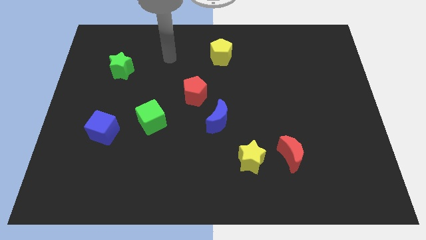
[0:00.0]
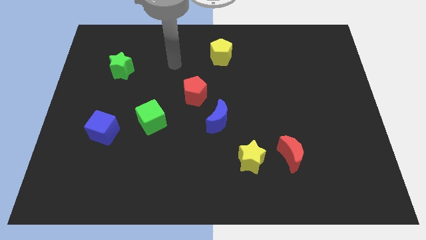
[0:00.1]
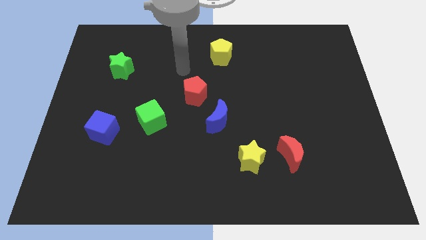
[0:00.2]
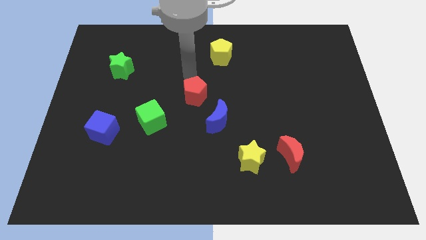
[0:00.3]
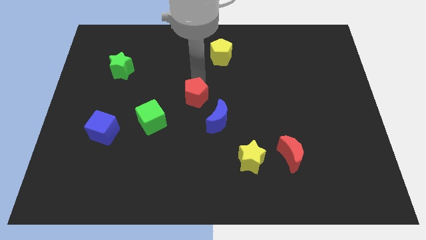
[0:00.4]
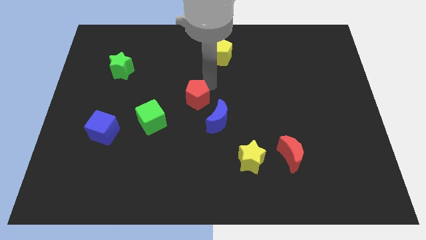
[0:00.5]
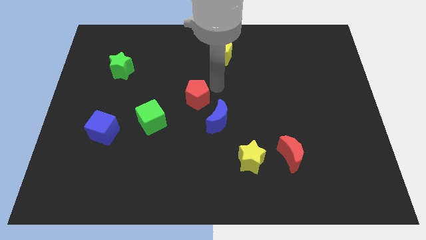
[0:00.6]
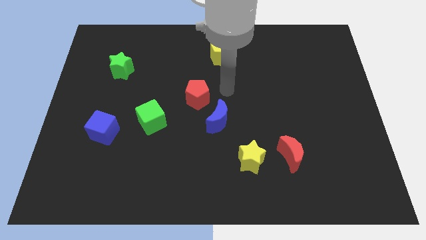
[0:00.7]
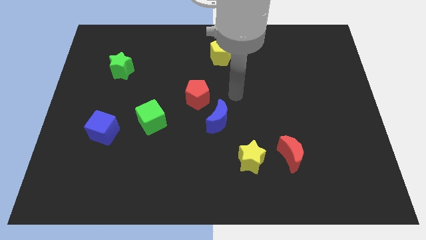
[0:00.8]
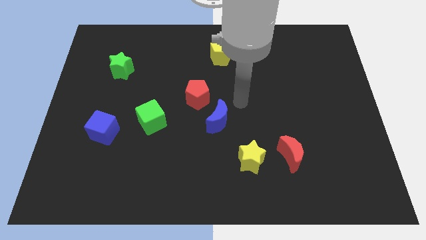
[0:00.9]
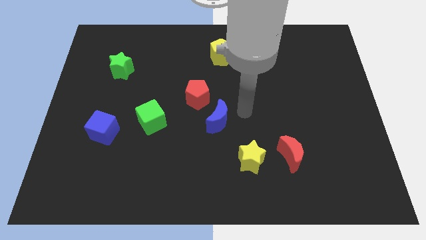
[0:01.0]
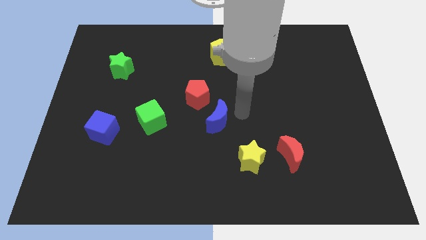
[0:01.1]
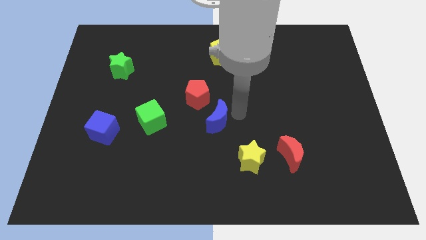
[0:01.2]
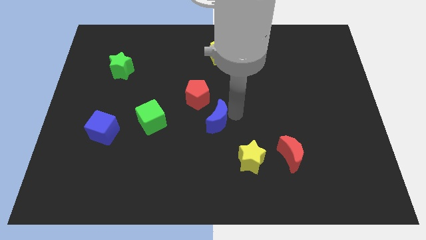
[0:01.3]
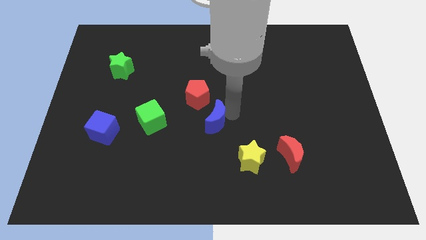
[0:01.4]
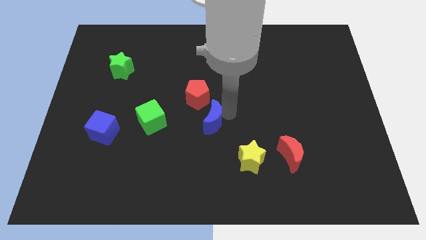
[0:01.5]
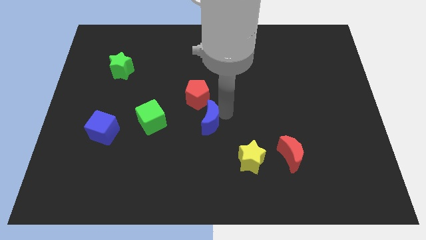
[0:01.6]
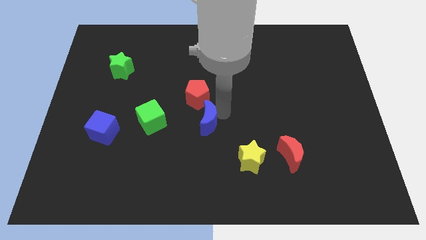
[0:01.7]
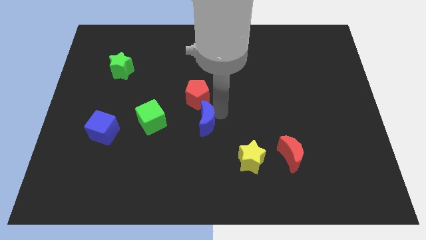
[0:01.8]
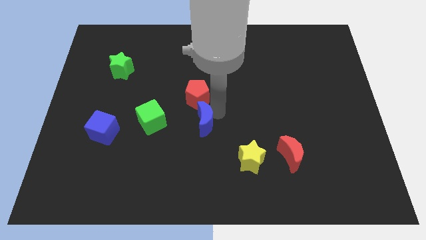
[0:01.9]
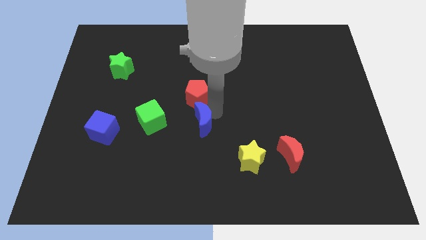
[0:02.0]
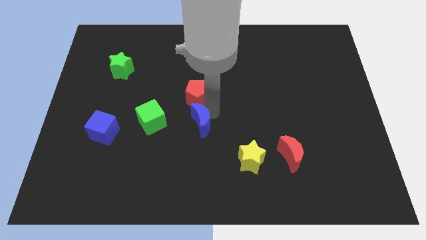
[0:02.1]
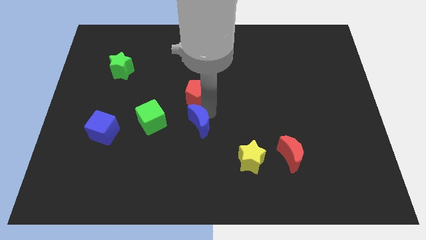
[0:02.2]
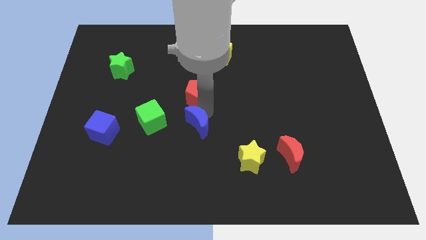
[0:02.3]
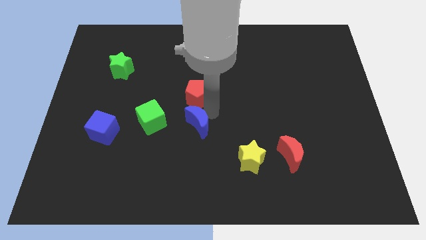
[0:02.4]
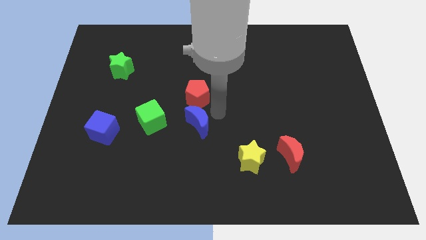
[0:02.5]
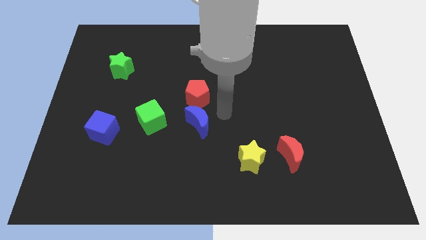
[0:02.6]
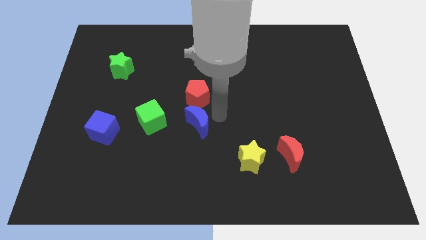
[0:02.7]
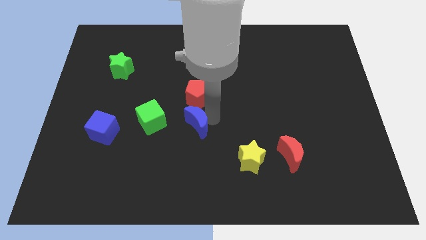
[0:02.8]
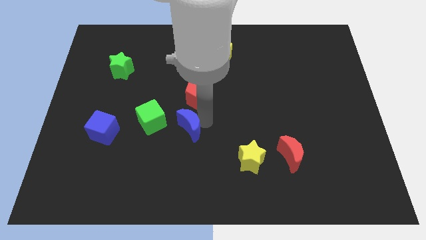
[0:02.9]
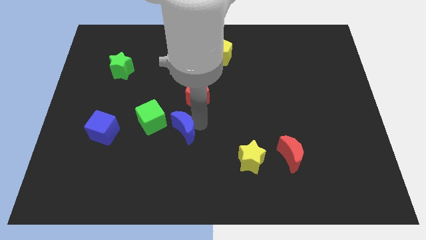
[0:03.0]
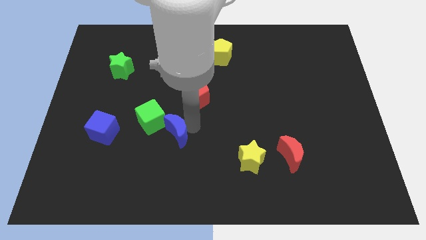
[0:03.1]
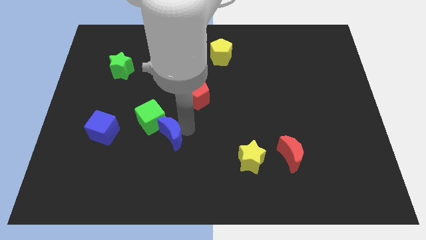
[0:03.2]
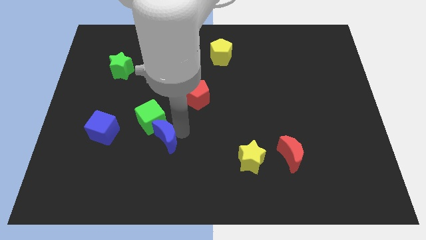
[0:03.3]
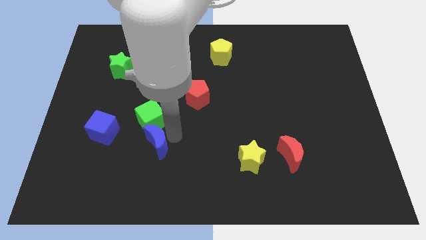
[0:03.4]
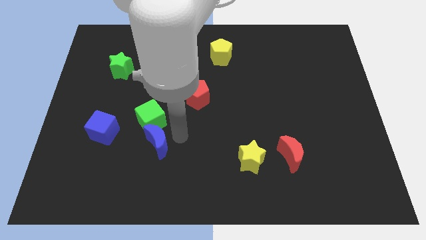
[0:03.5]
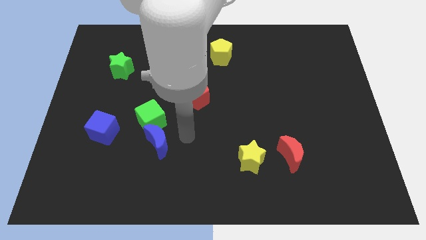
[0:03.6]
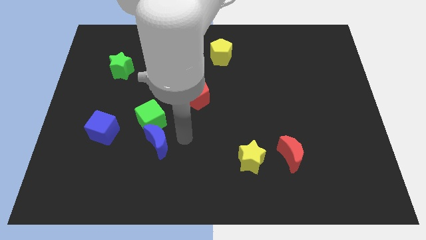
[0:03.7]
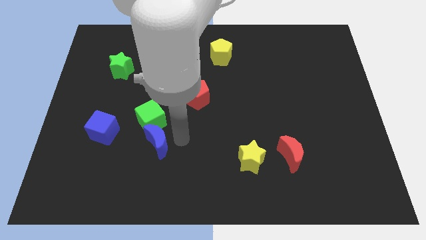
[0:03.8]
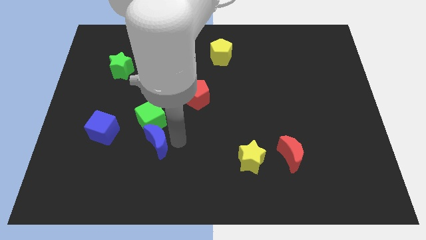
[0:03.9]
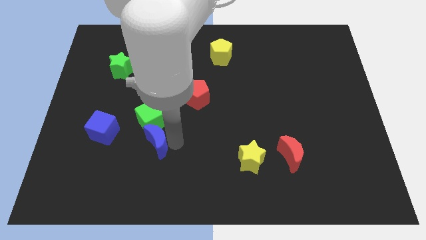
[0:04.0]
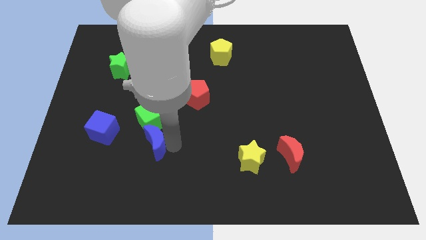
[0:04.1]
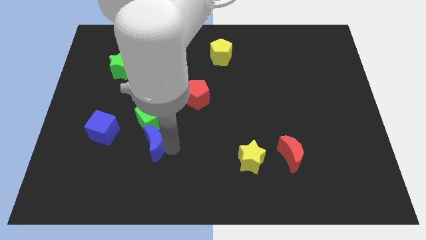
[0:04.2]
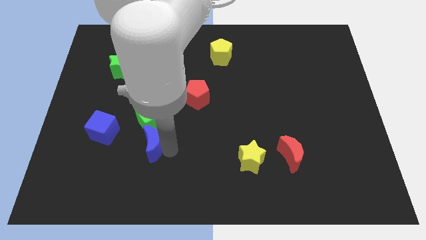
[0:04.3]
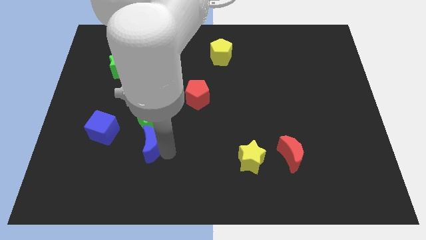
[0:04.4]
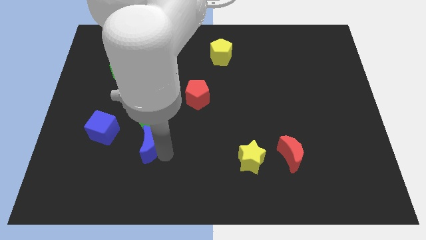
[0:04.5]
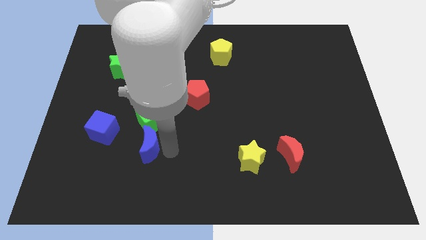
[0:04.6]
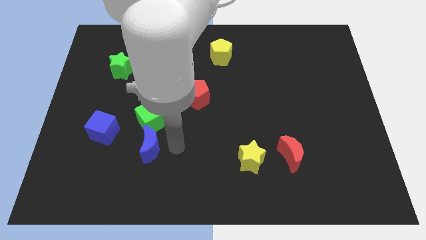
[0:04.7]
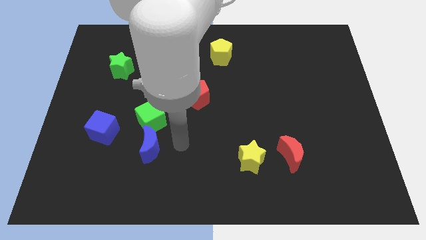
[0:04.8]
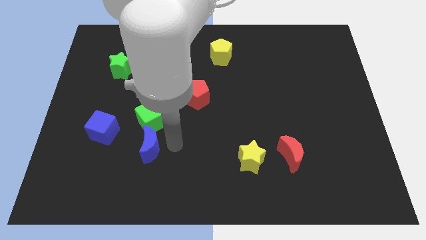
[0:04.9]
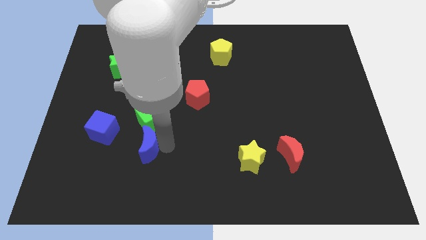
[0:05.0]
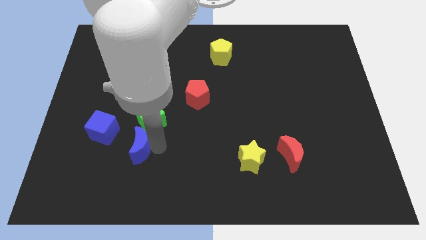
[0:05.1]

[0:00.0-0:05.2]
push the blue moon to the bottom right side of the blue cube

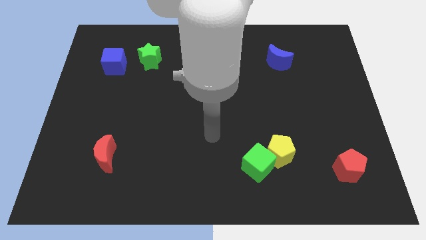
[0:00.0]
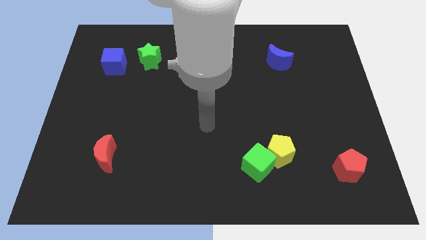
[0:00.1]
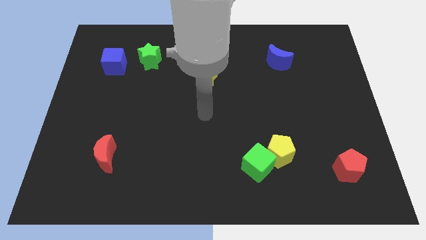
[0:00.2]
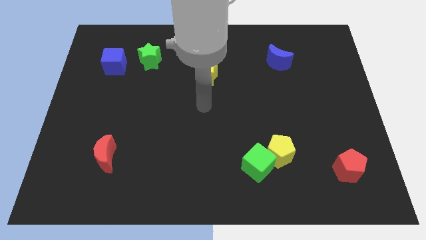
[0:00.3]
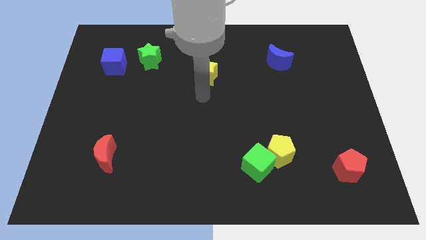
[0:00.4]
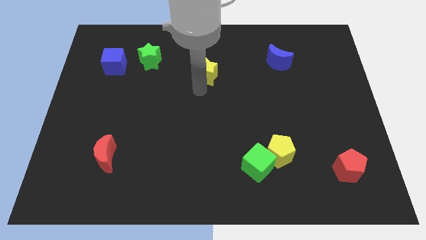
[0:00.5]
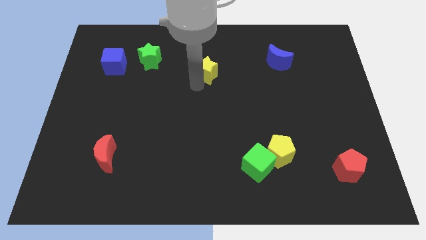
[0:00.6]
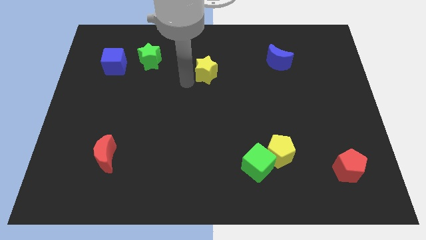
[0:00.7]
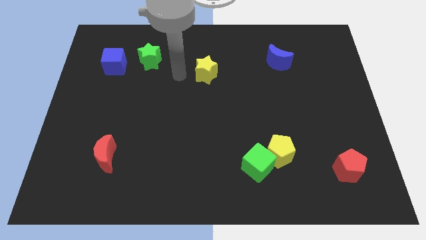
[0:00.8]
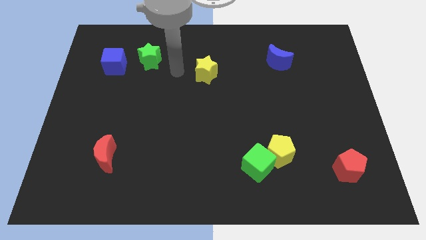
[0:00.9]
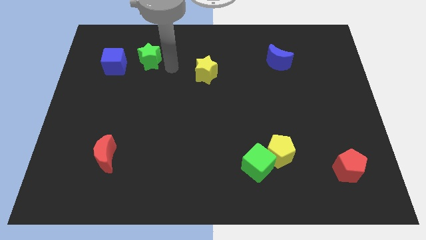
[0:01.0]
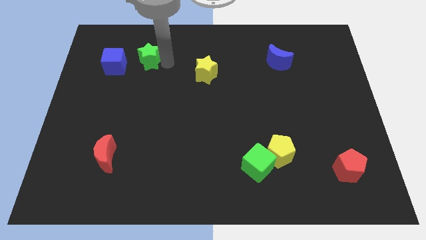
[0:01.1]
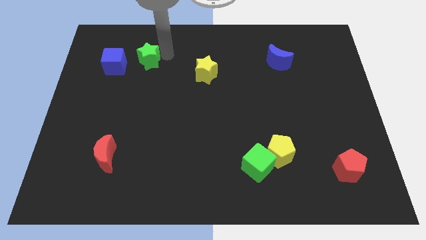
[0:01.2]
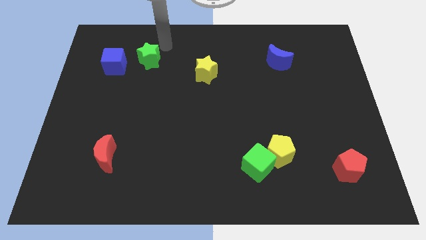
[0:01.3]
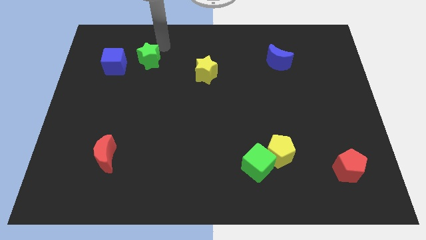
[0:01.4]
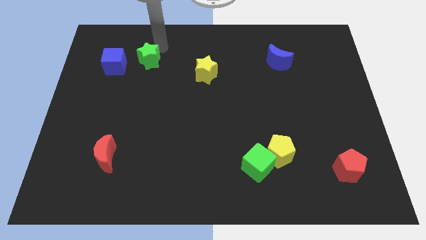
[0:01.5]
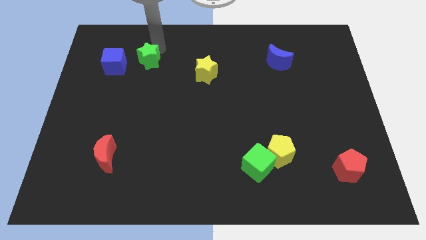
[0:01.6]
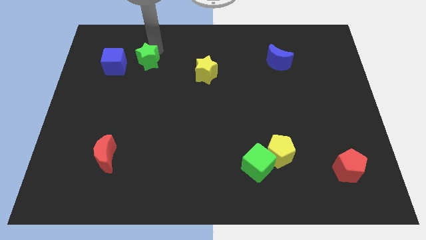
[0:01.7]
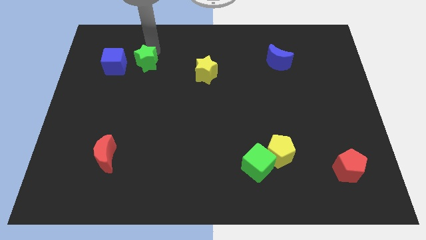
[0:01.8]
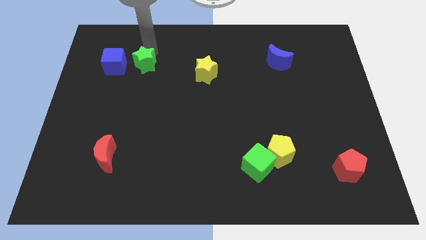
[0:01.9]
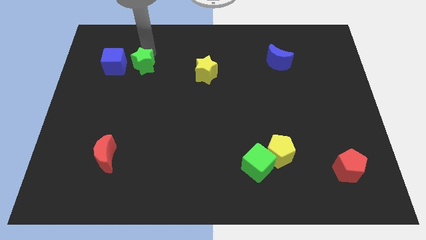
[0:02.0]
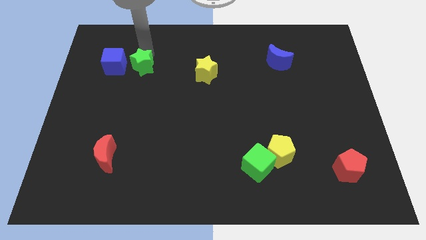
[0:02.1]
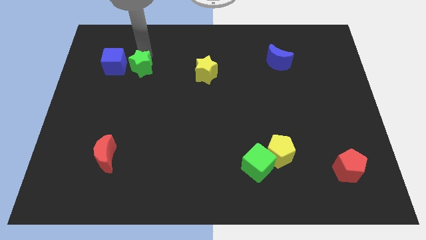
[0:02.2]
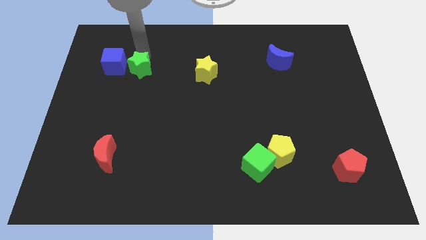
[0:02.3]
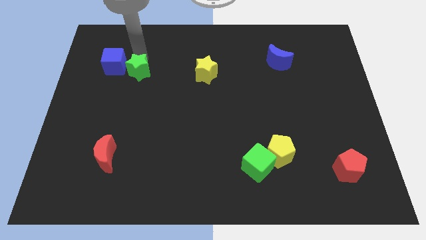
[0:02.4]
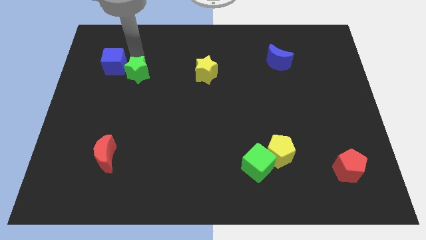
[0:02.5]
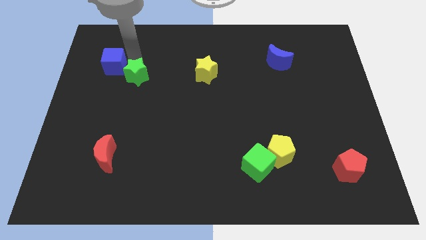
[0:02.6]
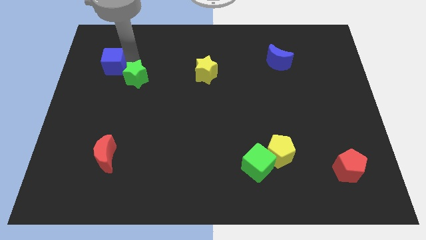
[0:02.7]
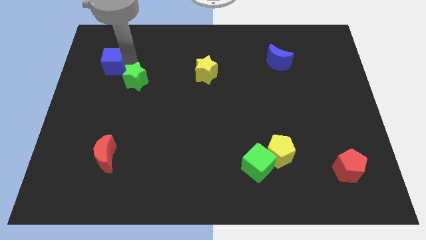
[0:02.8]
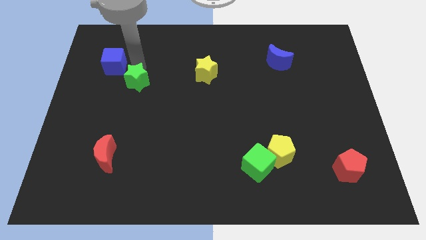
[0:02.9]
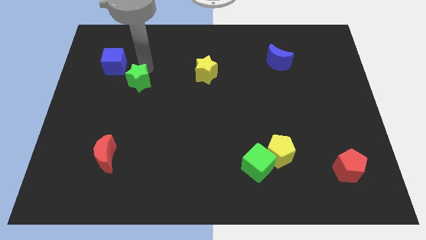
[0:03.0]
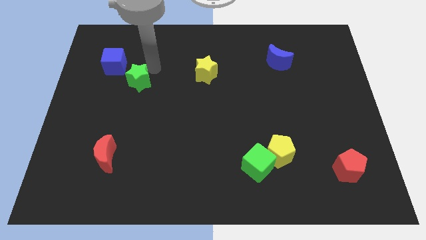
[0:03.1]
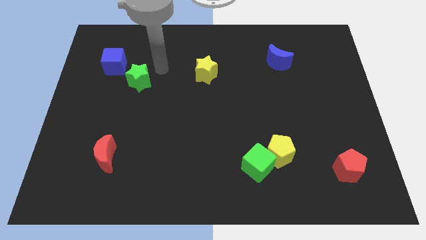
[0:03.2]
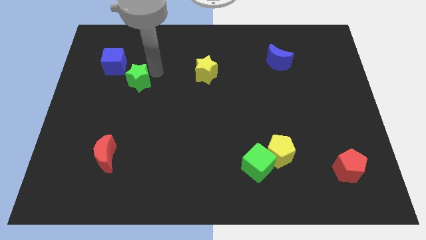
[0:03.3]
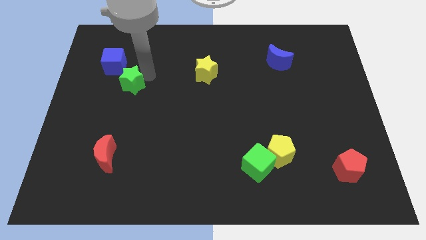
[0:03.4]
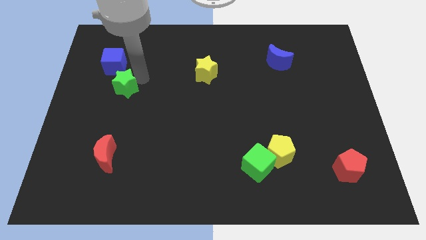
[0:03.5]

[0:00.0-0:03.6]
push the green star to the bottom side of the blue cube
